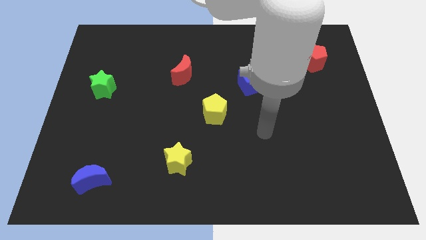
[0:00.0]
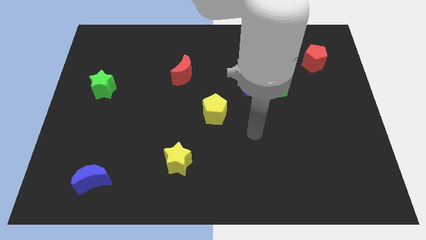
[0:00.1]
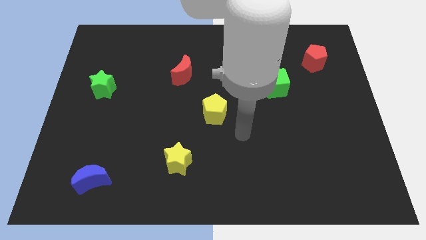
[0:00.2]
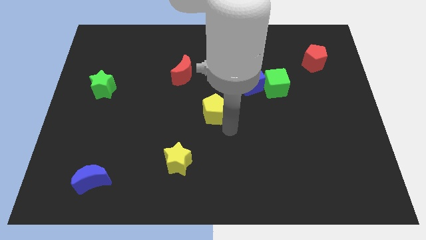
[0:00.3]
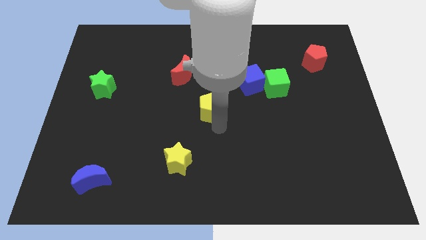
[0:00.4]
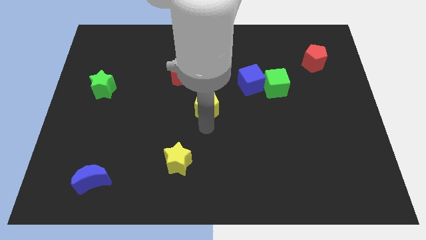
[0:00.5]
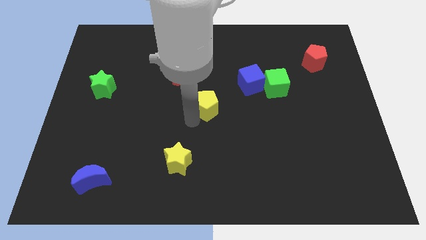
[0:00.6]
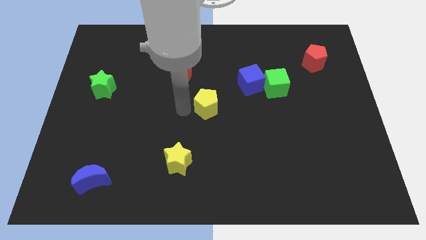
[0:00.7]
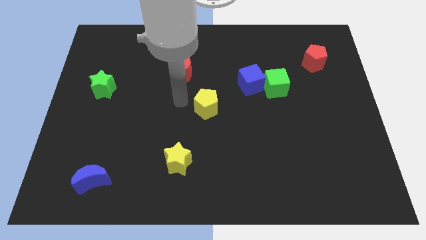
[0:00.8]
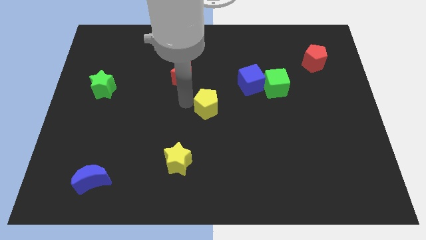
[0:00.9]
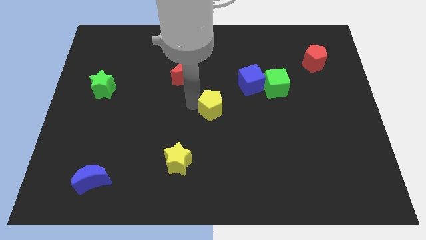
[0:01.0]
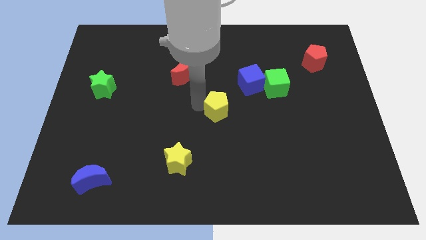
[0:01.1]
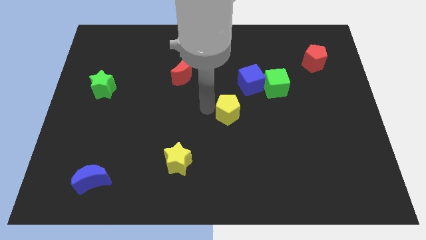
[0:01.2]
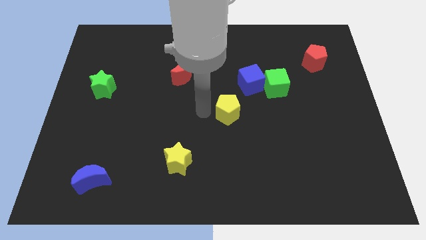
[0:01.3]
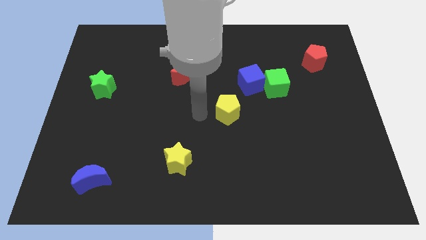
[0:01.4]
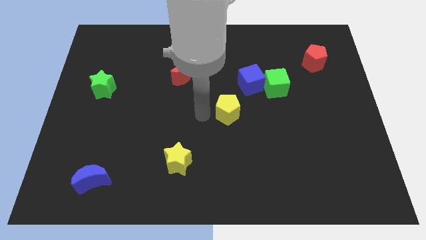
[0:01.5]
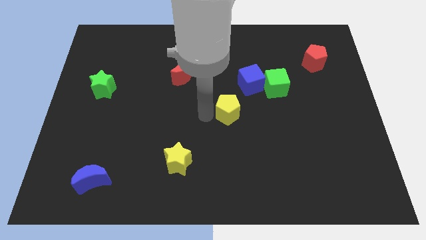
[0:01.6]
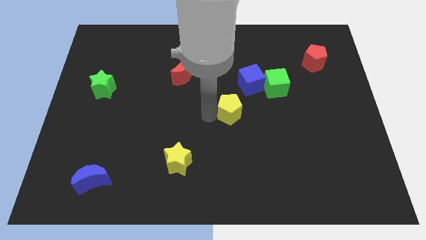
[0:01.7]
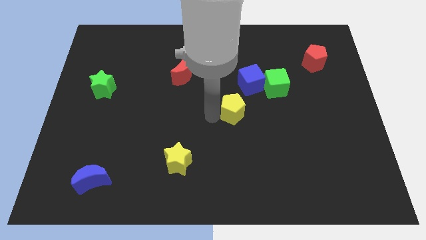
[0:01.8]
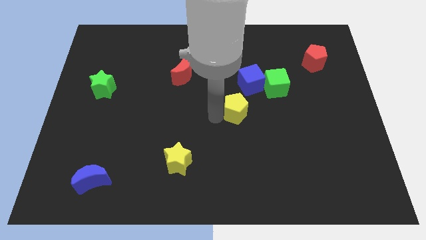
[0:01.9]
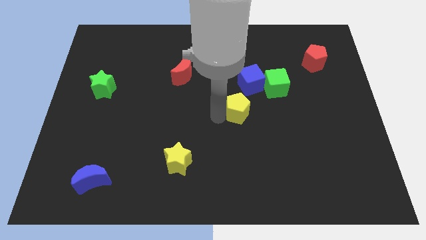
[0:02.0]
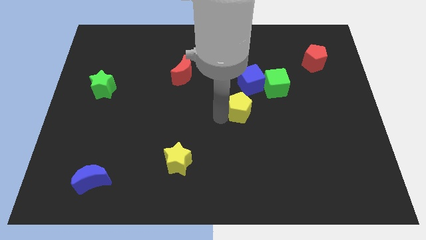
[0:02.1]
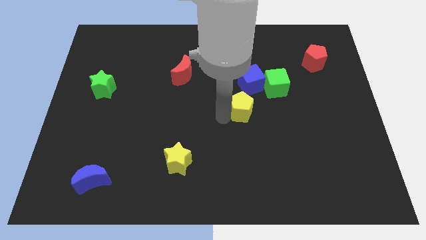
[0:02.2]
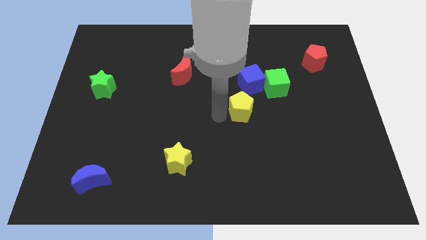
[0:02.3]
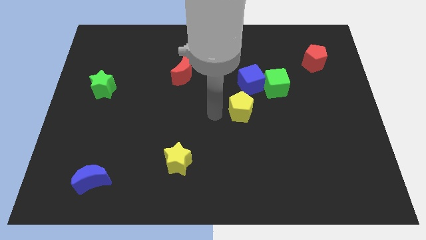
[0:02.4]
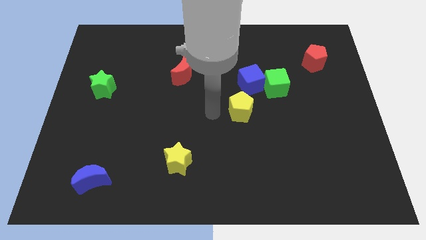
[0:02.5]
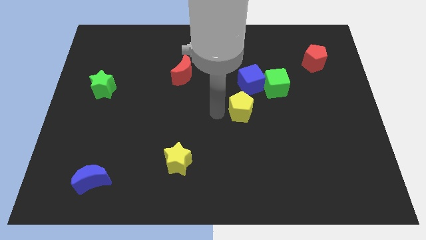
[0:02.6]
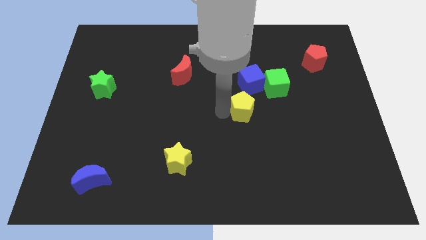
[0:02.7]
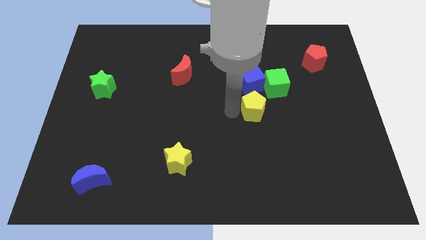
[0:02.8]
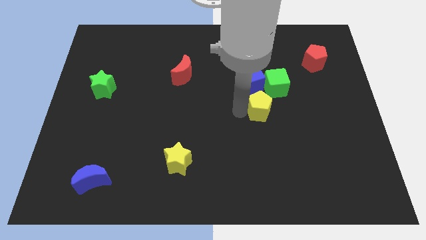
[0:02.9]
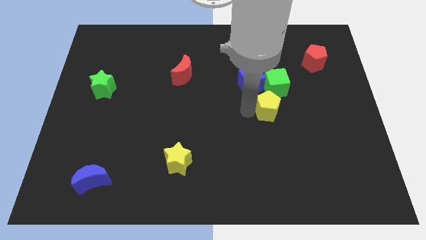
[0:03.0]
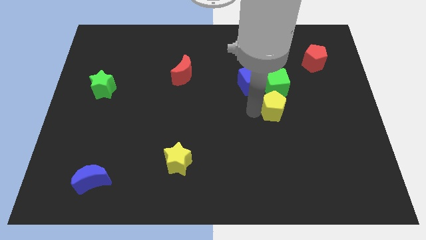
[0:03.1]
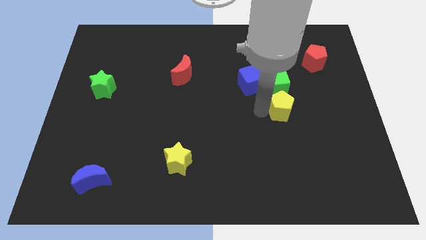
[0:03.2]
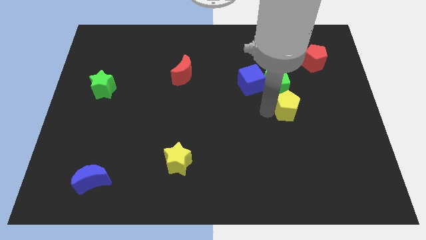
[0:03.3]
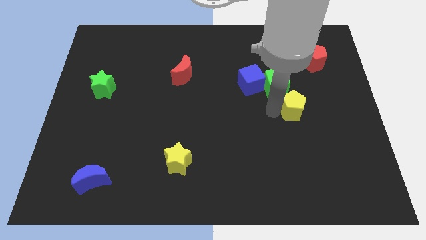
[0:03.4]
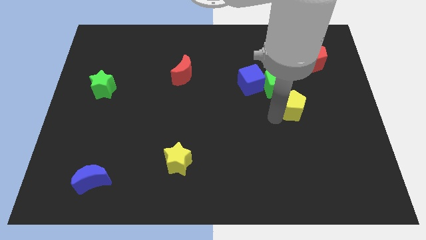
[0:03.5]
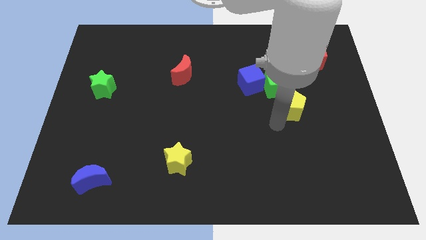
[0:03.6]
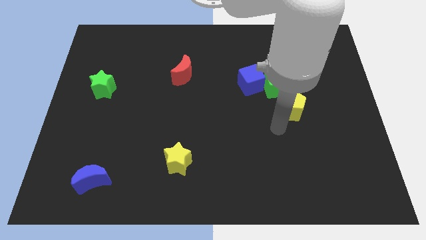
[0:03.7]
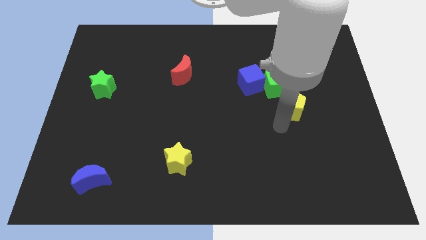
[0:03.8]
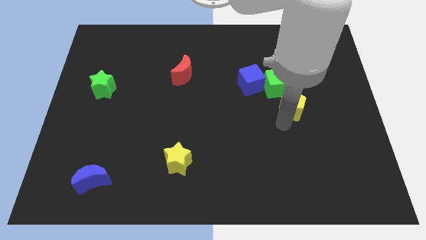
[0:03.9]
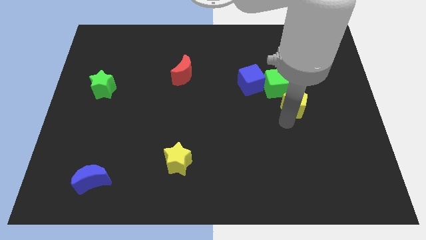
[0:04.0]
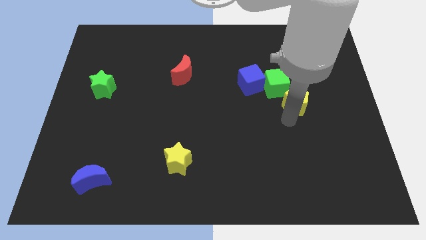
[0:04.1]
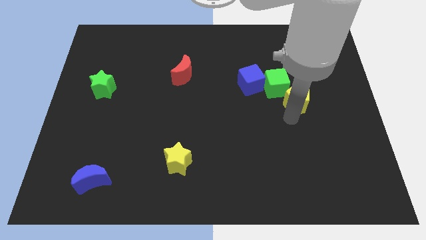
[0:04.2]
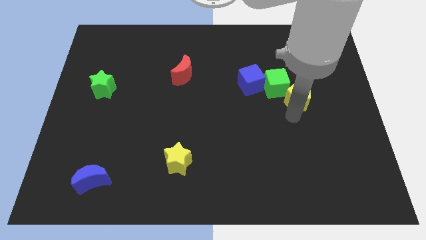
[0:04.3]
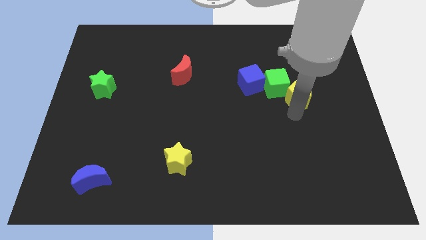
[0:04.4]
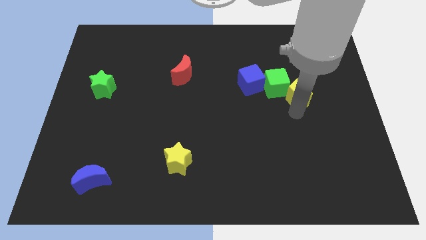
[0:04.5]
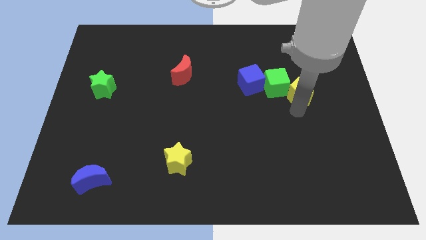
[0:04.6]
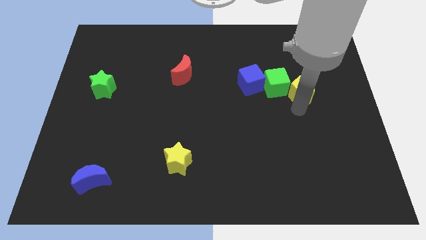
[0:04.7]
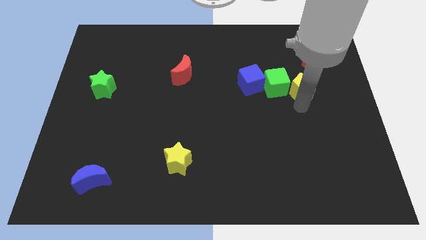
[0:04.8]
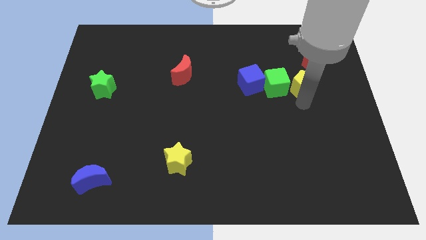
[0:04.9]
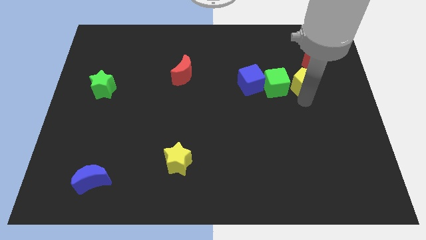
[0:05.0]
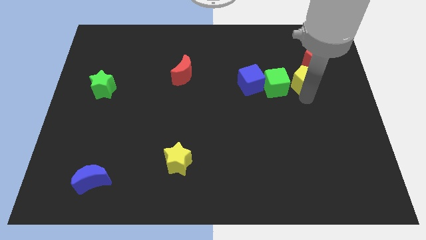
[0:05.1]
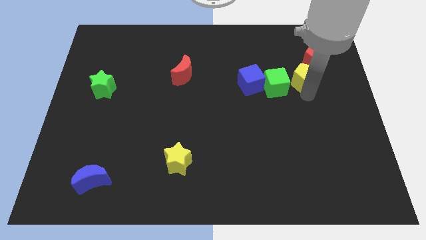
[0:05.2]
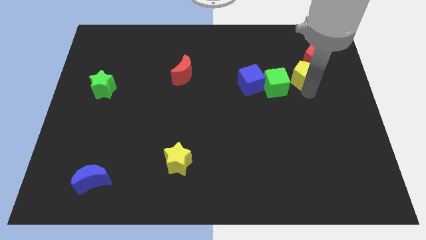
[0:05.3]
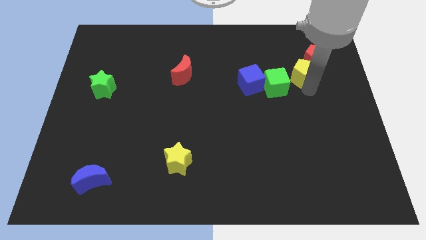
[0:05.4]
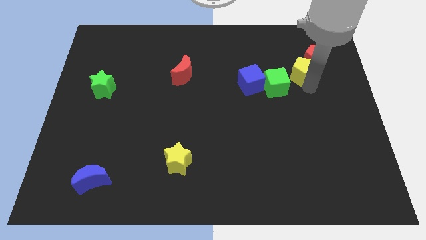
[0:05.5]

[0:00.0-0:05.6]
move the yellow pentagon towards the red pentagon

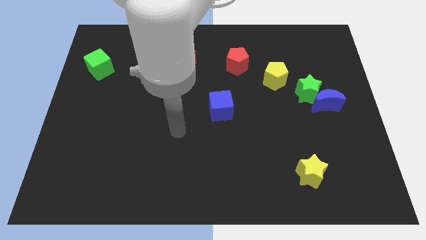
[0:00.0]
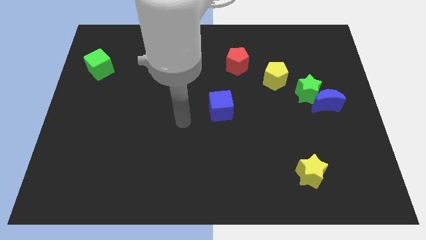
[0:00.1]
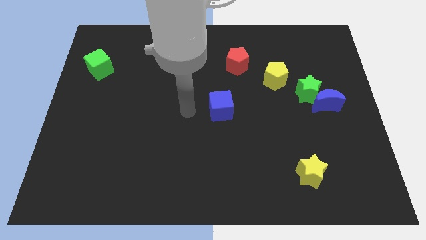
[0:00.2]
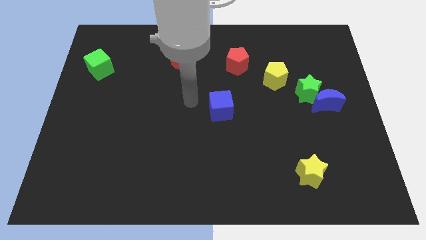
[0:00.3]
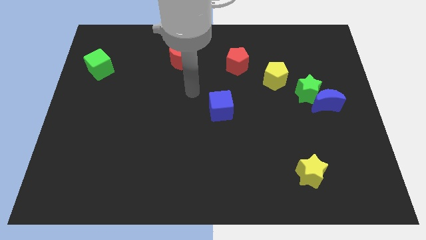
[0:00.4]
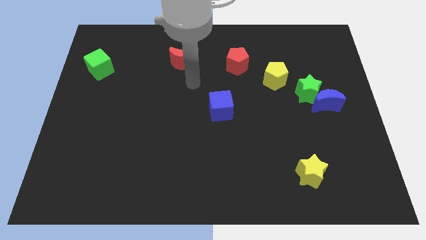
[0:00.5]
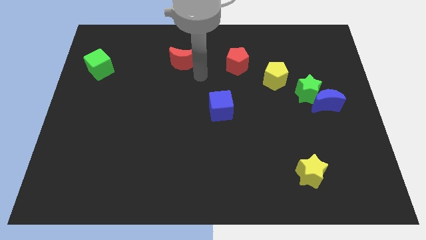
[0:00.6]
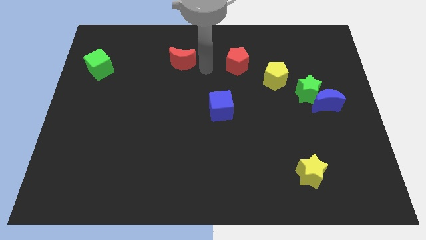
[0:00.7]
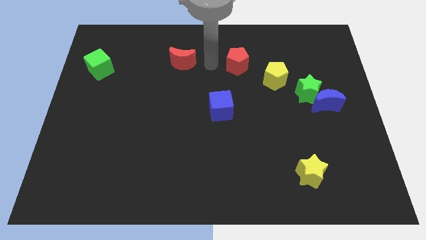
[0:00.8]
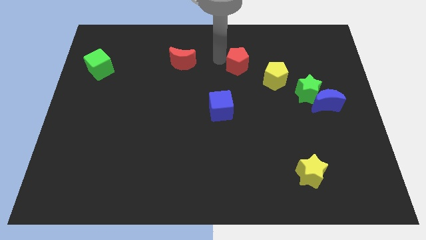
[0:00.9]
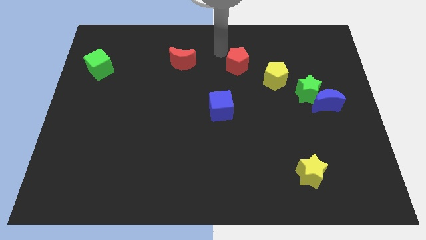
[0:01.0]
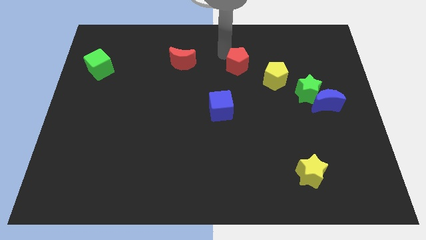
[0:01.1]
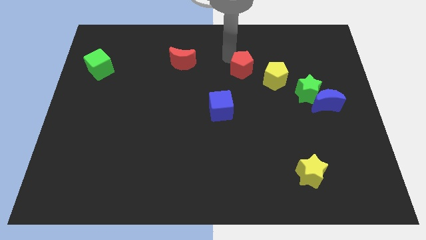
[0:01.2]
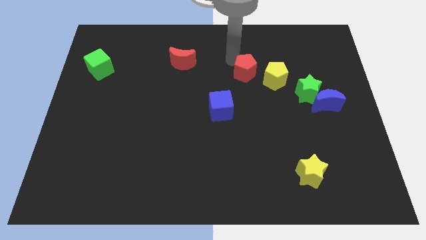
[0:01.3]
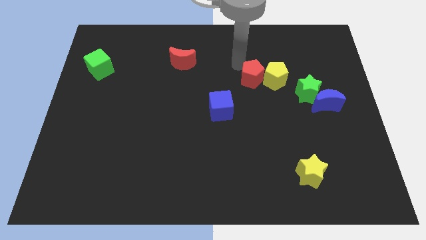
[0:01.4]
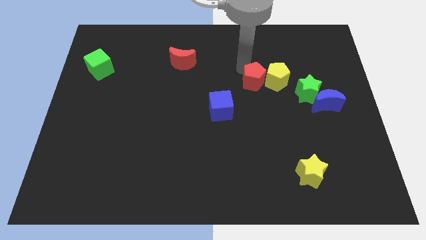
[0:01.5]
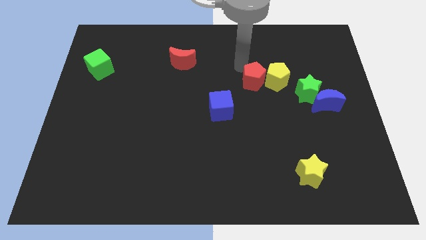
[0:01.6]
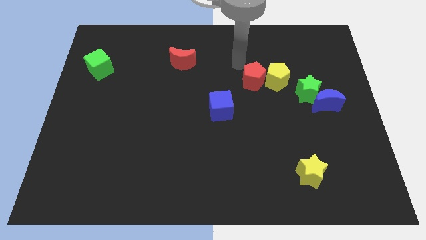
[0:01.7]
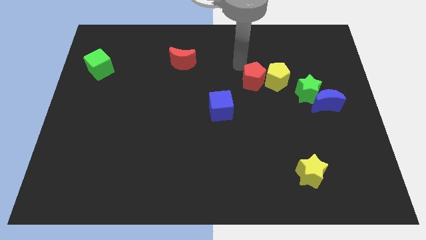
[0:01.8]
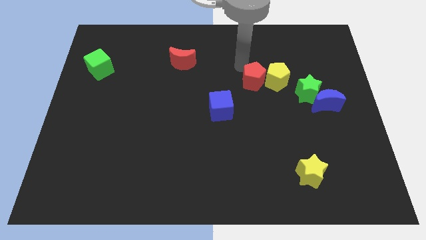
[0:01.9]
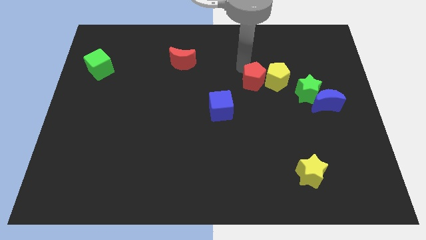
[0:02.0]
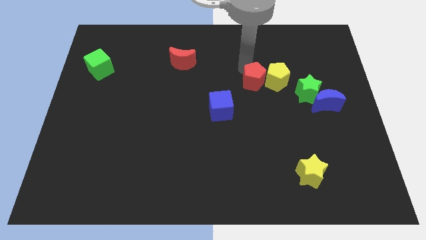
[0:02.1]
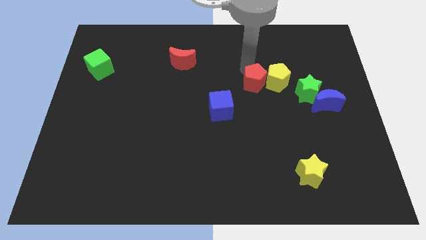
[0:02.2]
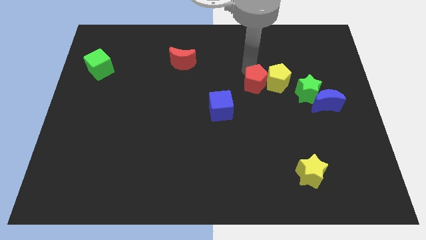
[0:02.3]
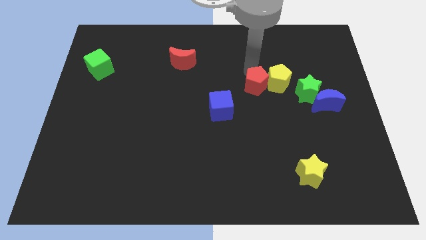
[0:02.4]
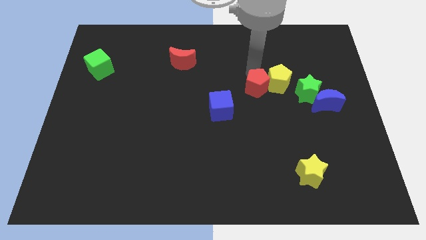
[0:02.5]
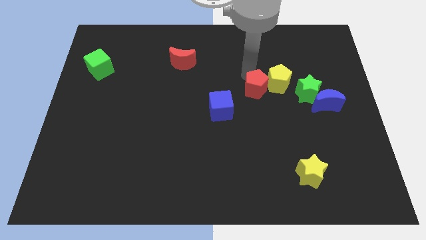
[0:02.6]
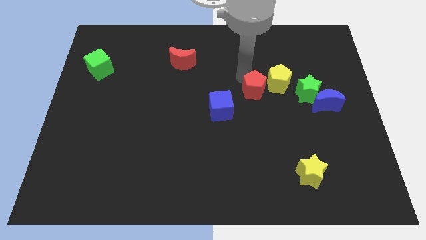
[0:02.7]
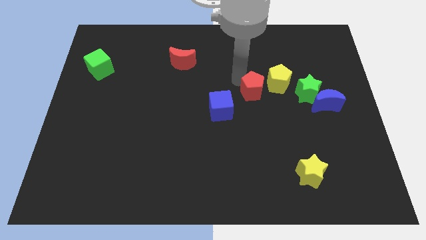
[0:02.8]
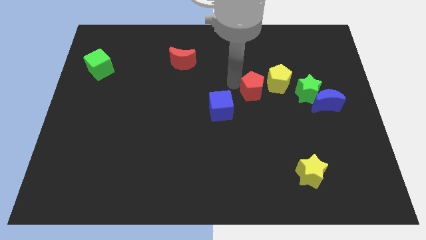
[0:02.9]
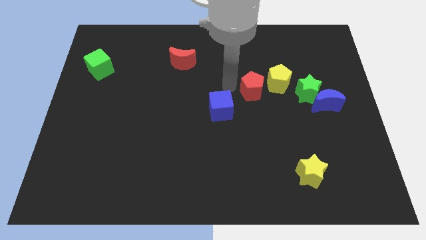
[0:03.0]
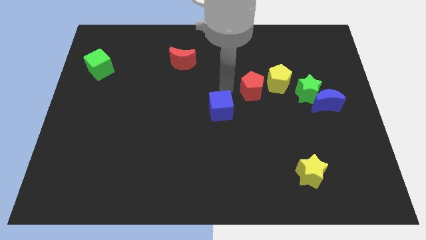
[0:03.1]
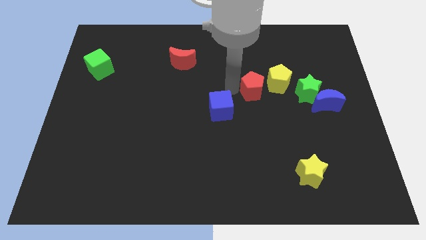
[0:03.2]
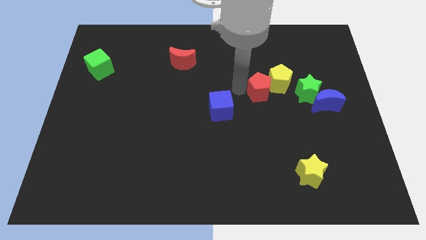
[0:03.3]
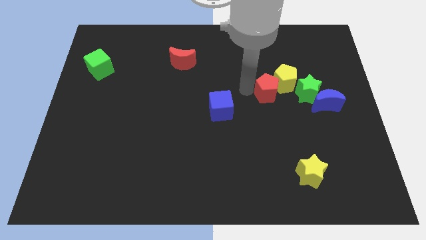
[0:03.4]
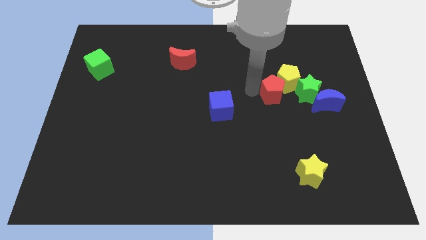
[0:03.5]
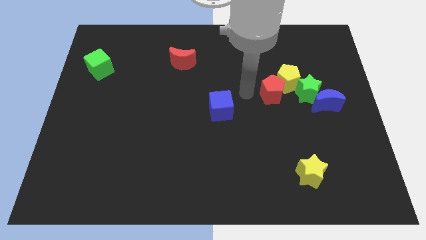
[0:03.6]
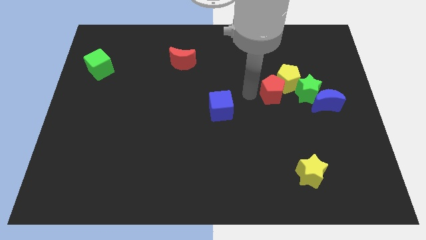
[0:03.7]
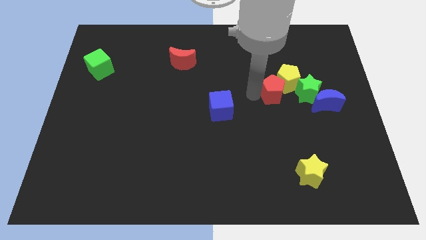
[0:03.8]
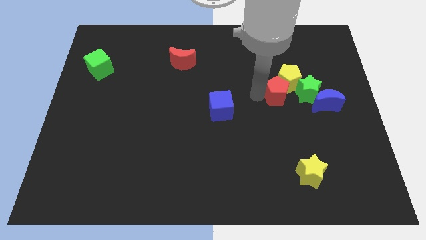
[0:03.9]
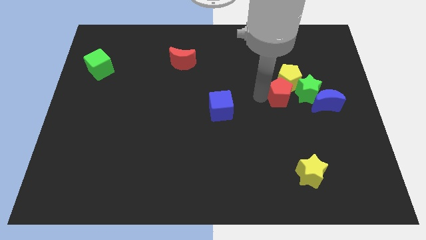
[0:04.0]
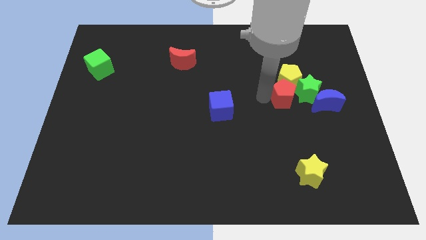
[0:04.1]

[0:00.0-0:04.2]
move the red pentagon next to the green star
